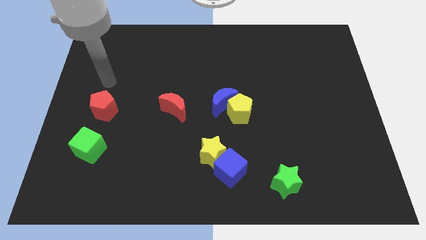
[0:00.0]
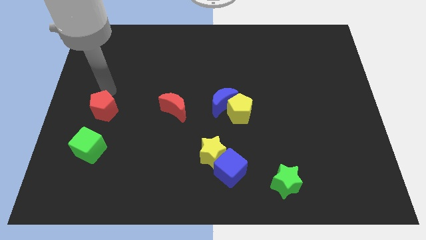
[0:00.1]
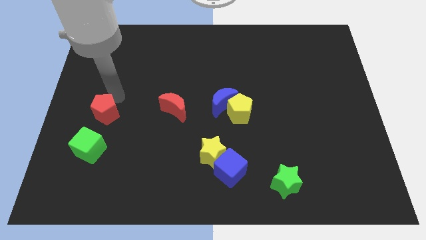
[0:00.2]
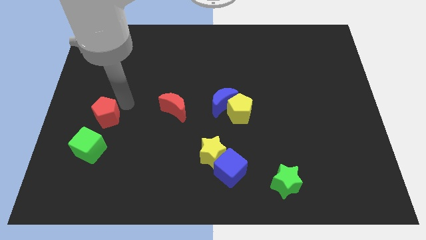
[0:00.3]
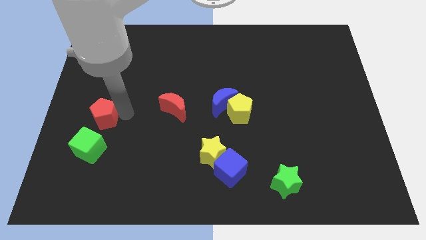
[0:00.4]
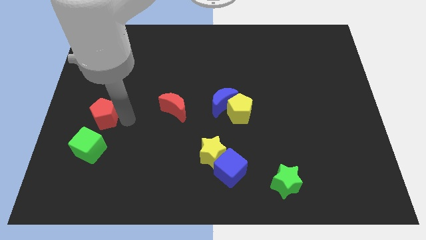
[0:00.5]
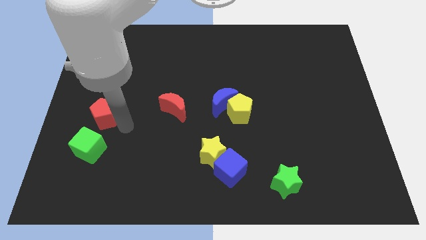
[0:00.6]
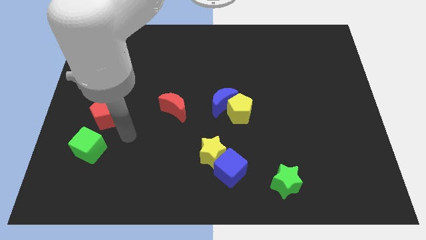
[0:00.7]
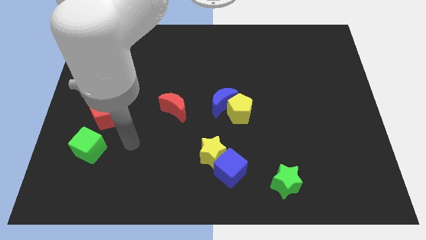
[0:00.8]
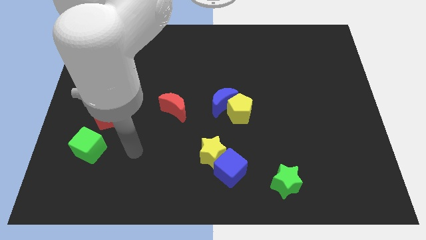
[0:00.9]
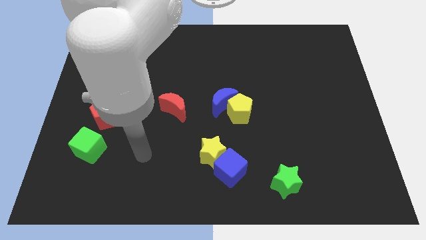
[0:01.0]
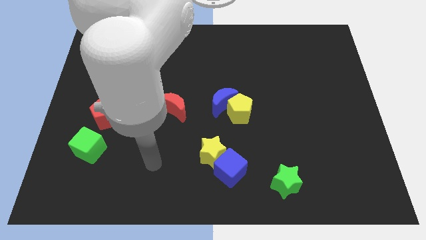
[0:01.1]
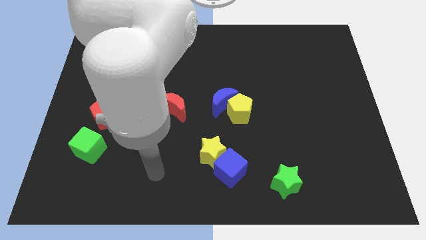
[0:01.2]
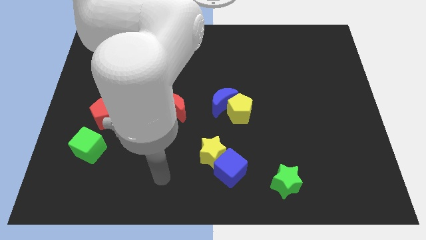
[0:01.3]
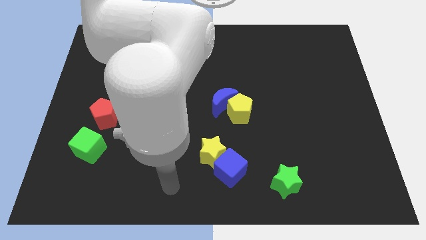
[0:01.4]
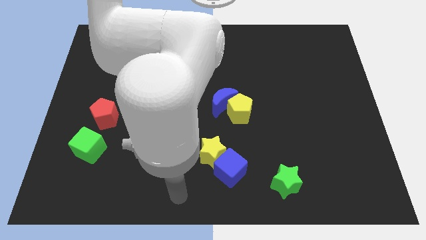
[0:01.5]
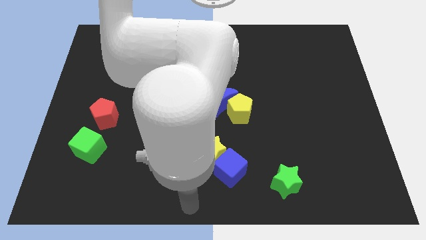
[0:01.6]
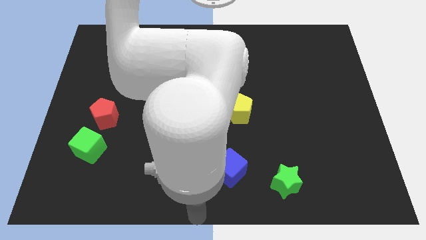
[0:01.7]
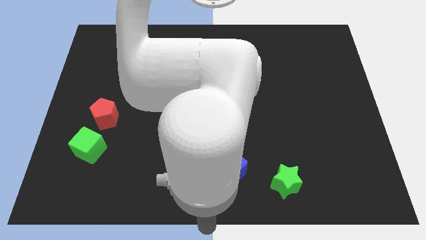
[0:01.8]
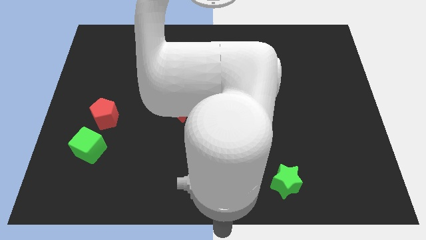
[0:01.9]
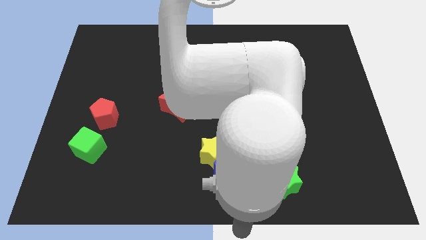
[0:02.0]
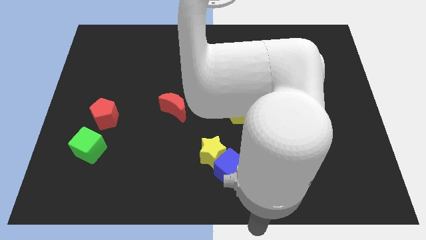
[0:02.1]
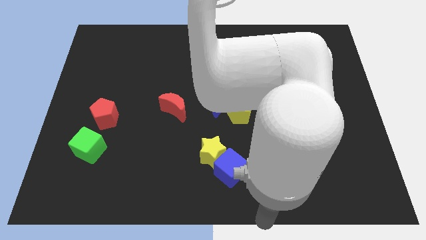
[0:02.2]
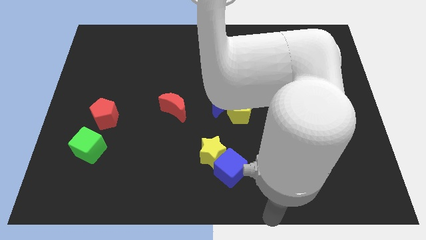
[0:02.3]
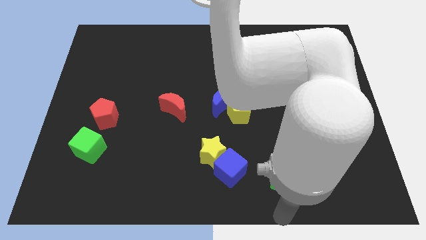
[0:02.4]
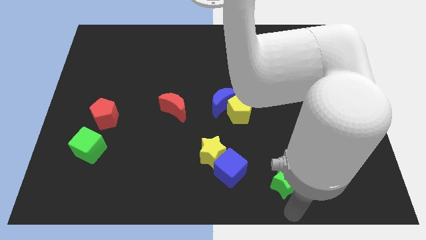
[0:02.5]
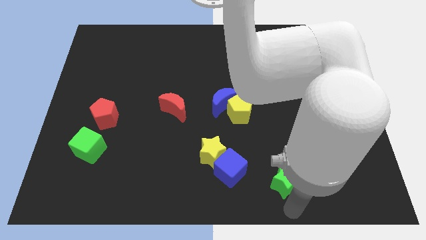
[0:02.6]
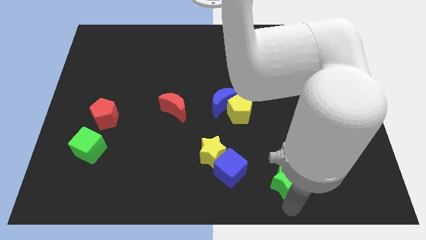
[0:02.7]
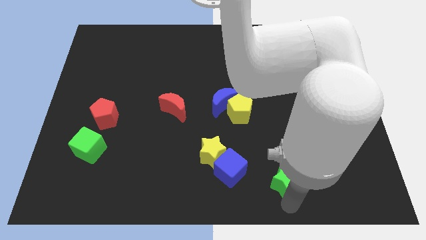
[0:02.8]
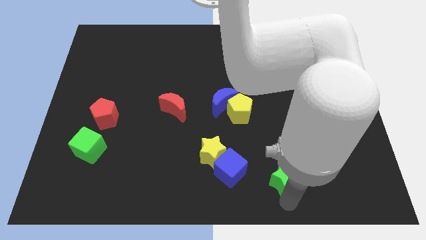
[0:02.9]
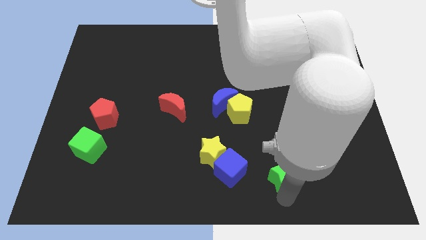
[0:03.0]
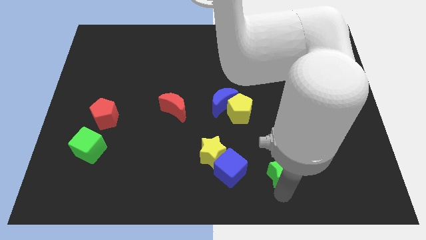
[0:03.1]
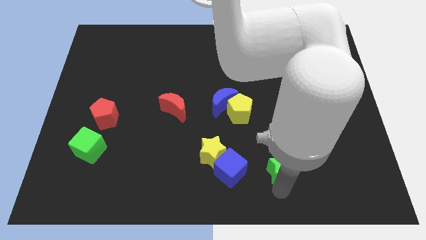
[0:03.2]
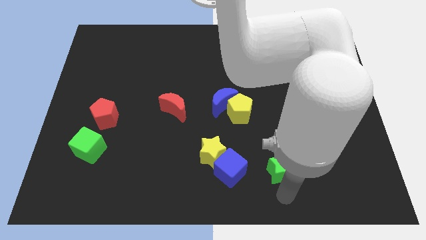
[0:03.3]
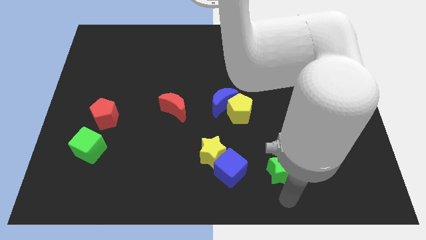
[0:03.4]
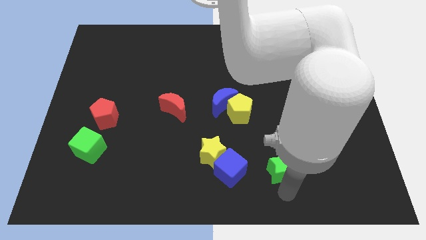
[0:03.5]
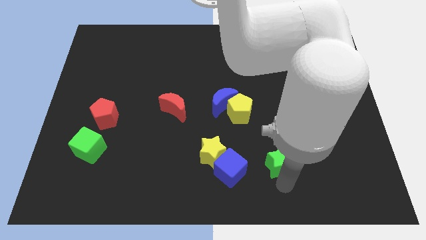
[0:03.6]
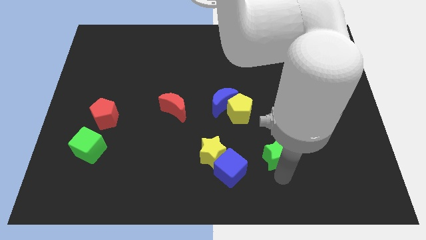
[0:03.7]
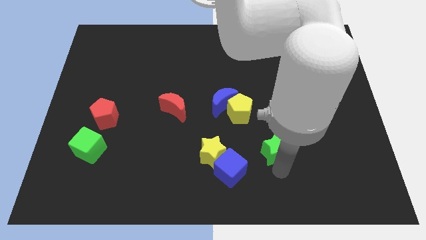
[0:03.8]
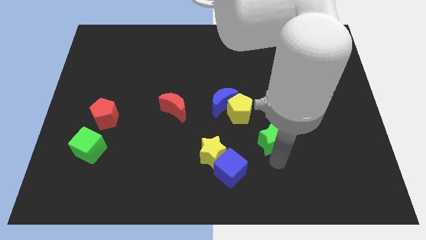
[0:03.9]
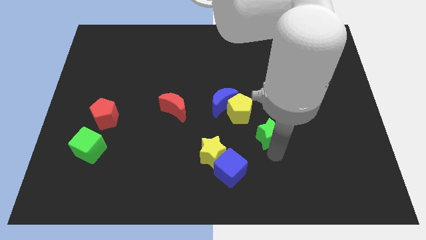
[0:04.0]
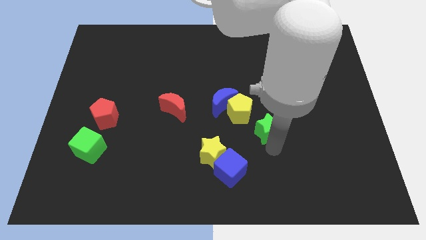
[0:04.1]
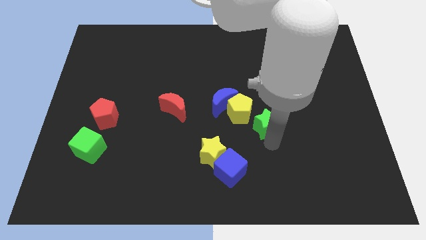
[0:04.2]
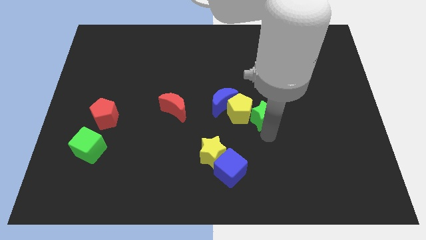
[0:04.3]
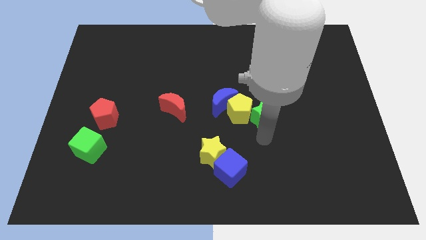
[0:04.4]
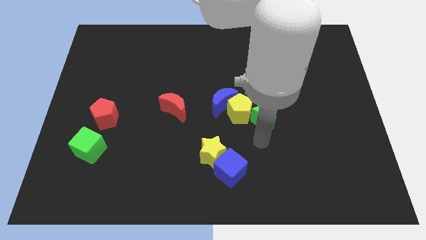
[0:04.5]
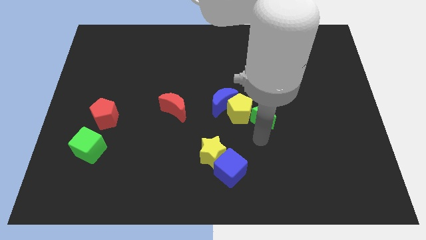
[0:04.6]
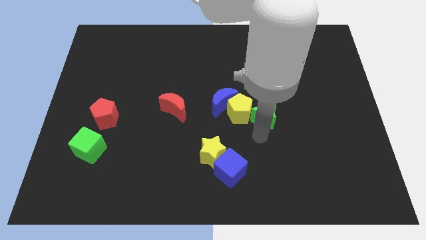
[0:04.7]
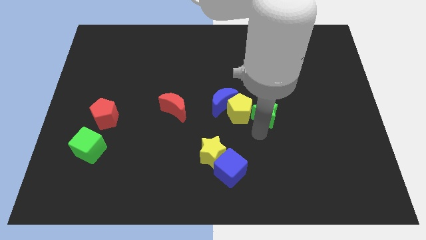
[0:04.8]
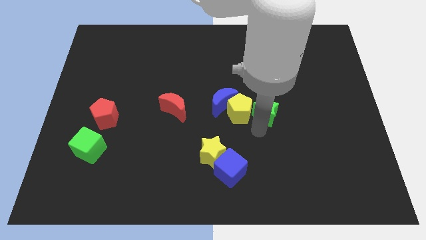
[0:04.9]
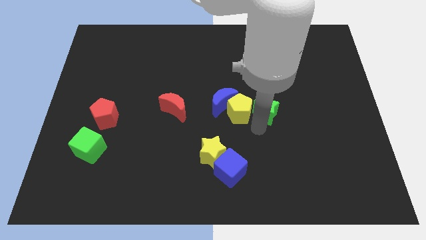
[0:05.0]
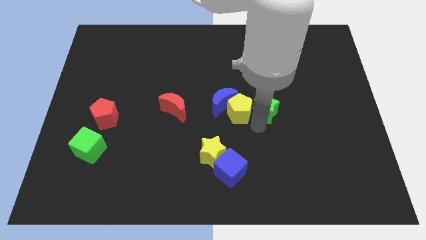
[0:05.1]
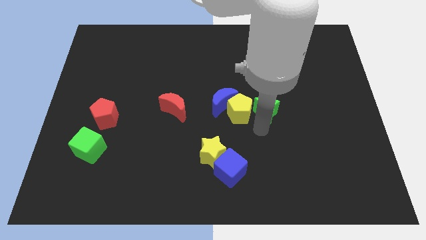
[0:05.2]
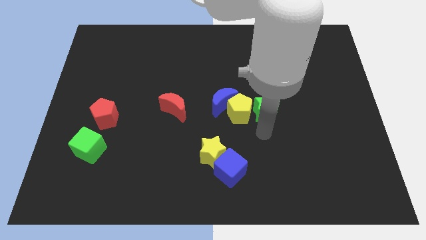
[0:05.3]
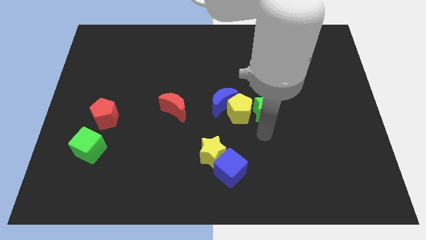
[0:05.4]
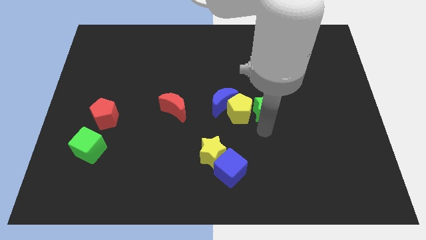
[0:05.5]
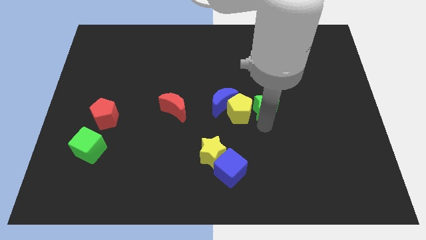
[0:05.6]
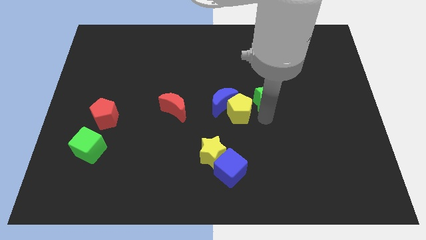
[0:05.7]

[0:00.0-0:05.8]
move the green star upwards

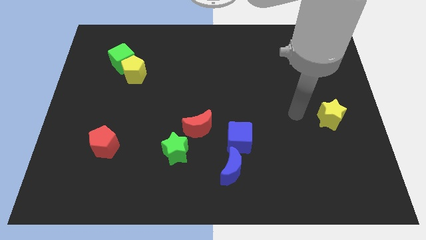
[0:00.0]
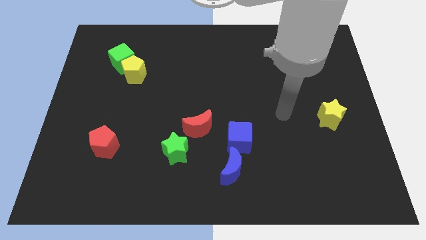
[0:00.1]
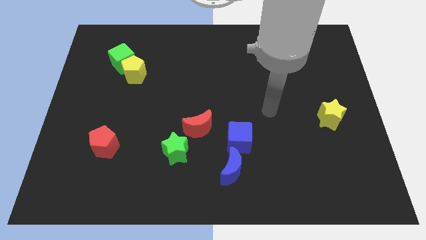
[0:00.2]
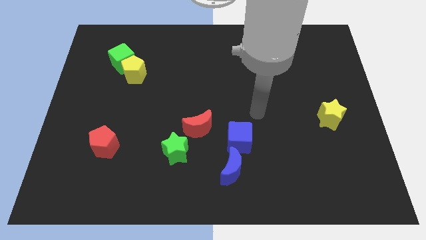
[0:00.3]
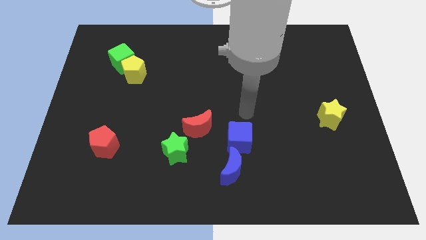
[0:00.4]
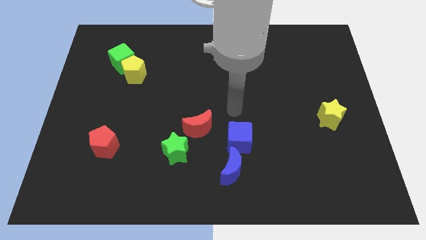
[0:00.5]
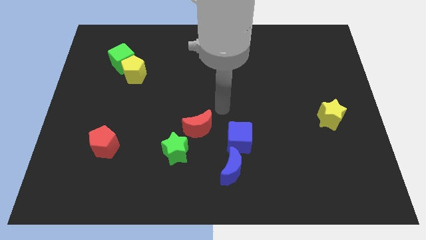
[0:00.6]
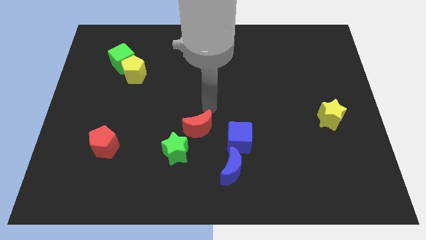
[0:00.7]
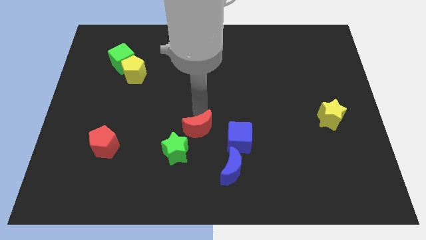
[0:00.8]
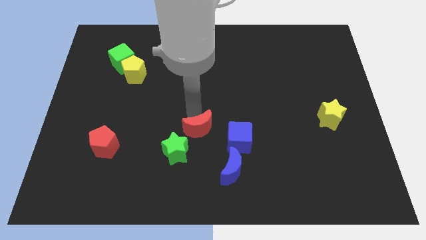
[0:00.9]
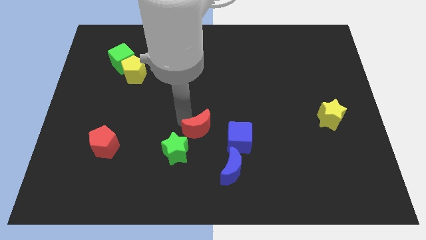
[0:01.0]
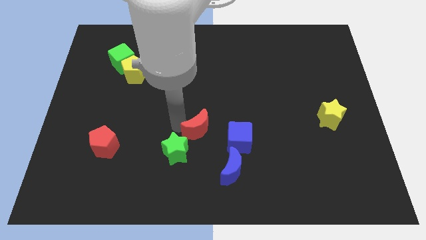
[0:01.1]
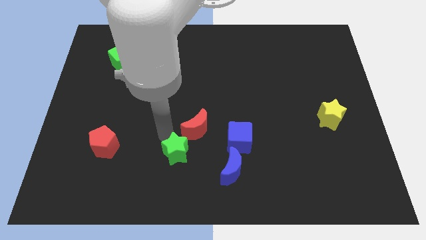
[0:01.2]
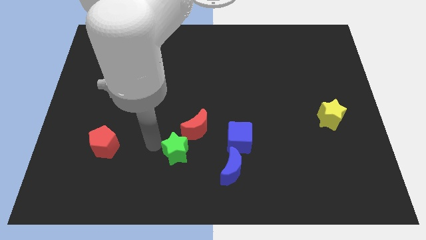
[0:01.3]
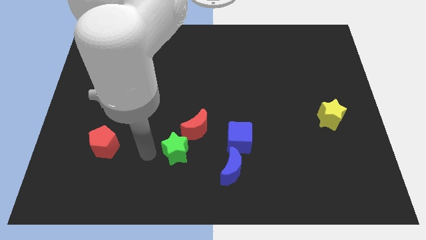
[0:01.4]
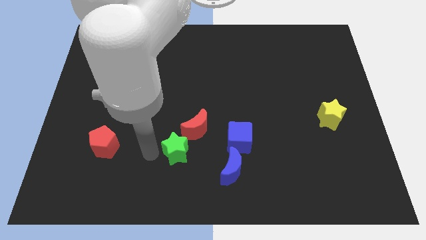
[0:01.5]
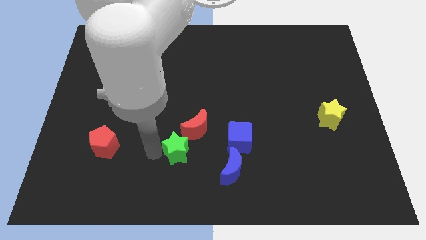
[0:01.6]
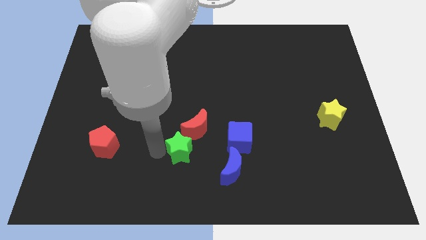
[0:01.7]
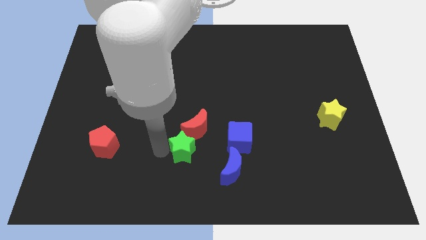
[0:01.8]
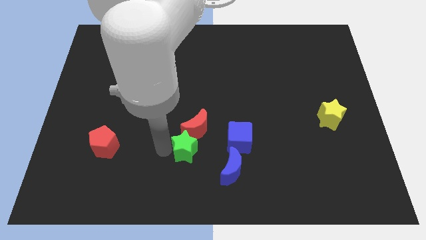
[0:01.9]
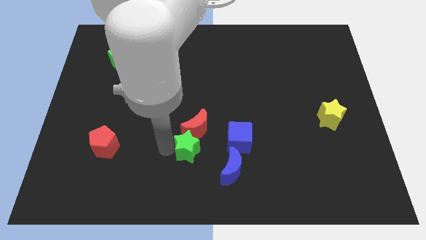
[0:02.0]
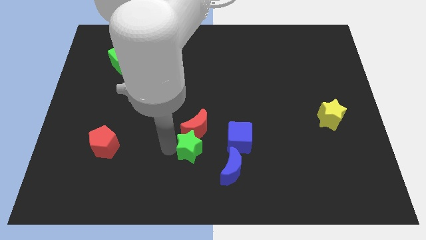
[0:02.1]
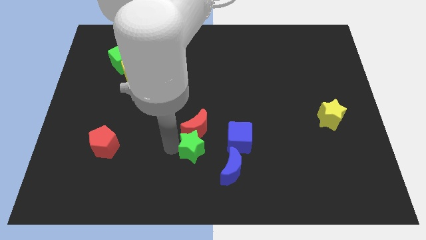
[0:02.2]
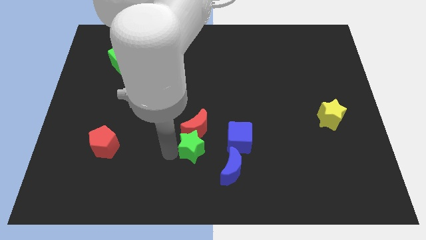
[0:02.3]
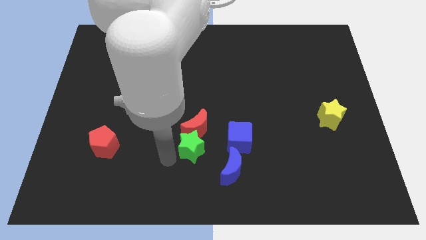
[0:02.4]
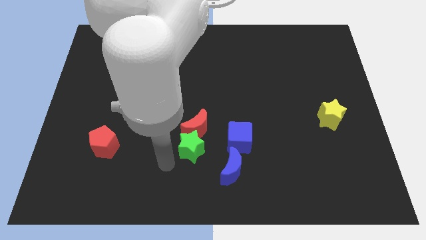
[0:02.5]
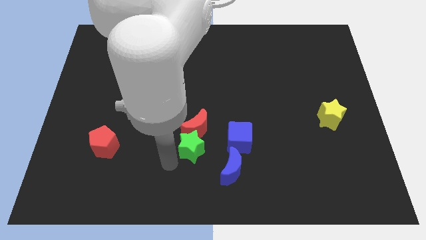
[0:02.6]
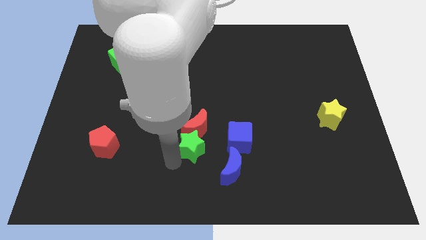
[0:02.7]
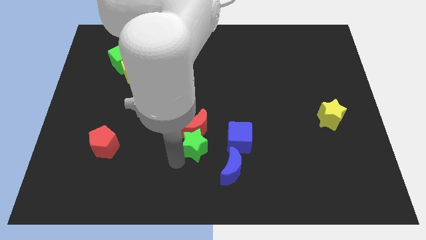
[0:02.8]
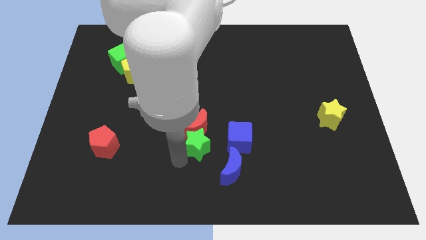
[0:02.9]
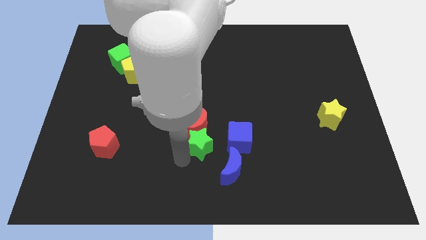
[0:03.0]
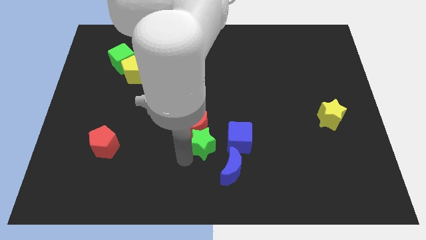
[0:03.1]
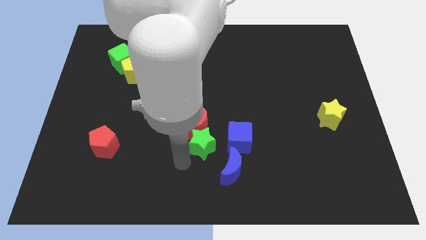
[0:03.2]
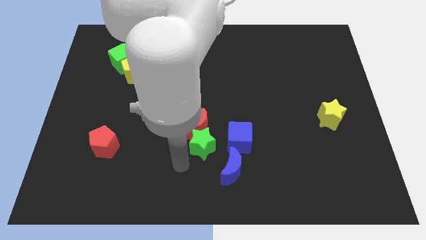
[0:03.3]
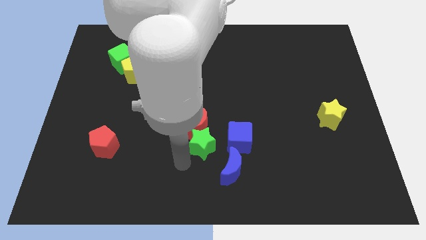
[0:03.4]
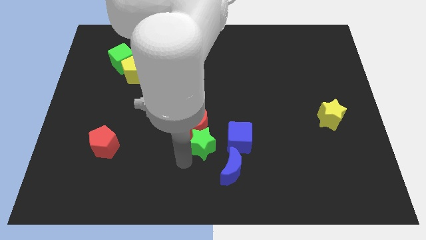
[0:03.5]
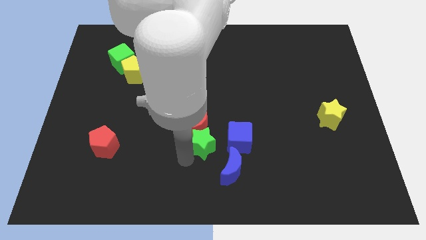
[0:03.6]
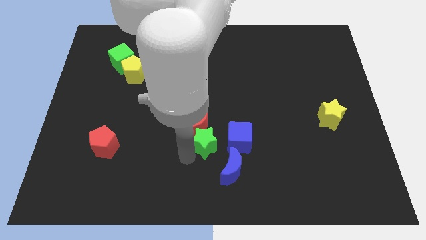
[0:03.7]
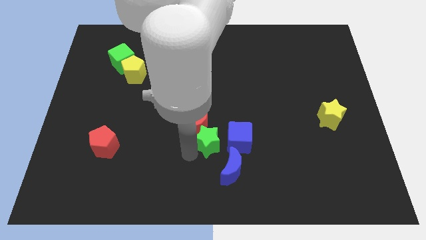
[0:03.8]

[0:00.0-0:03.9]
push the green star slightly to the right
